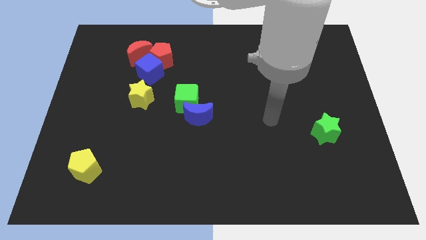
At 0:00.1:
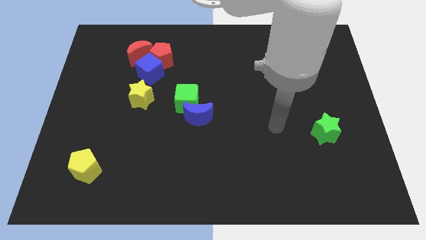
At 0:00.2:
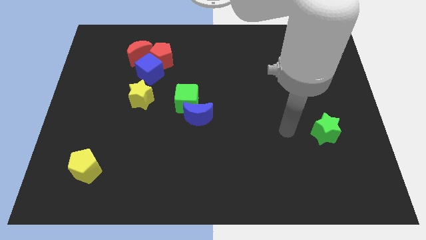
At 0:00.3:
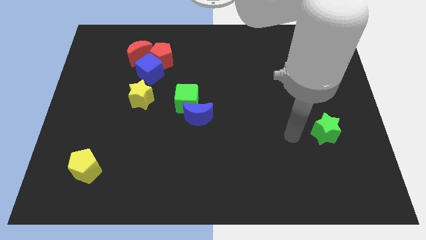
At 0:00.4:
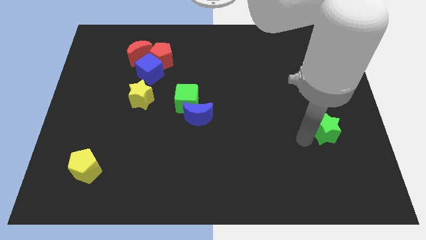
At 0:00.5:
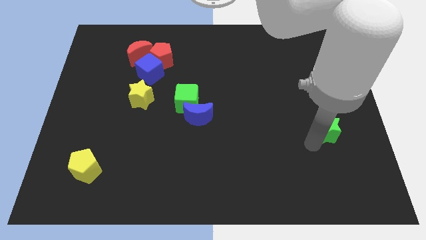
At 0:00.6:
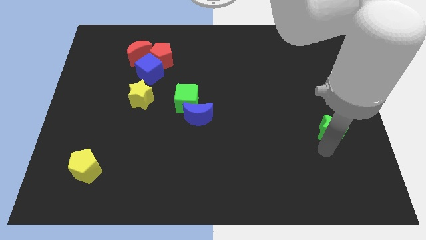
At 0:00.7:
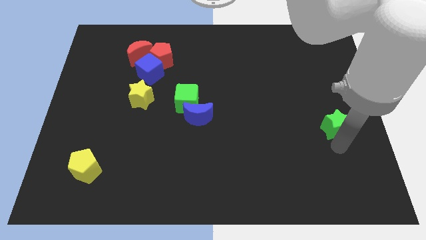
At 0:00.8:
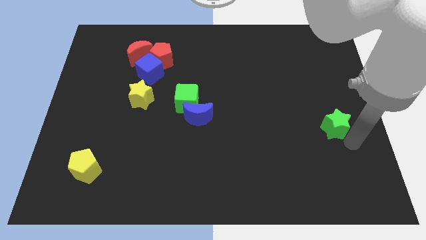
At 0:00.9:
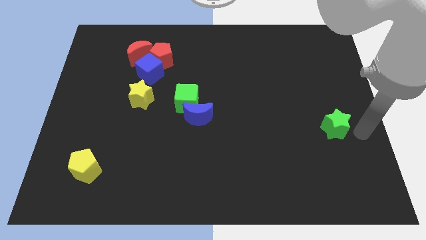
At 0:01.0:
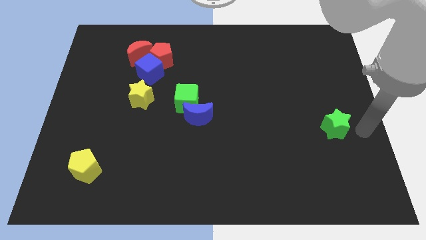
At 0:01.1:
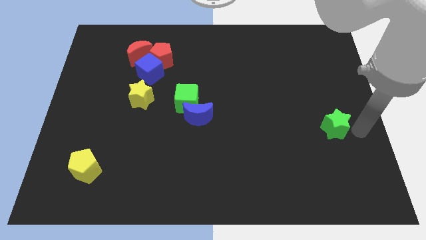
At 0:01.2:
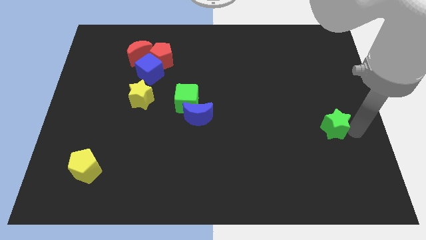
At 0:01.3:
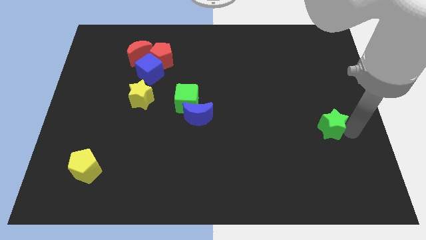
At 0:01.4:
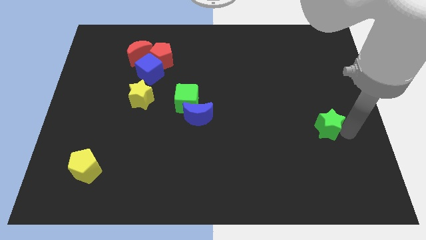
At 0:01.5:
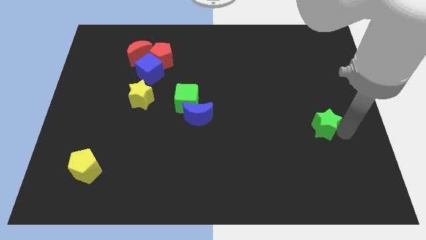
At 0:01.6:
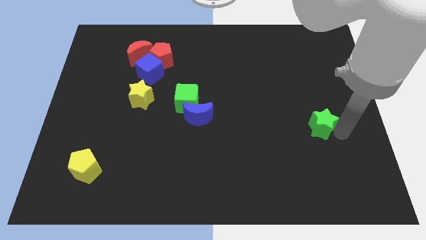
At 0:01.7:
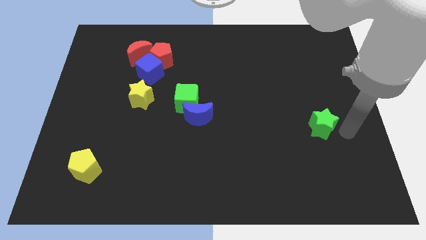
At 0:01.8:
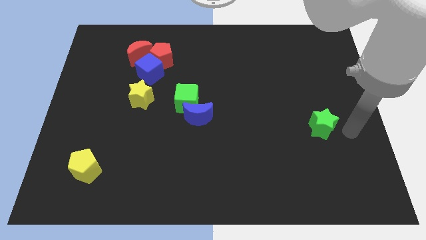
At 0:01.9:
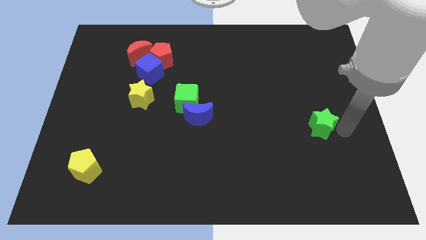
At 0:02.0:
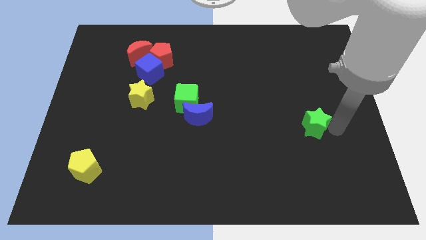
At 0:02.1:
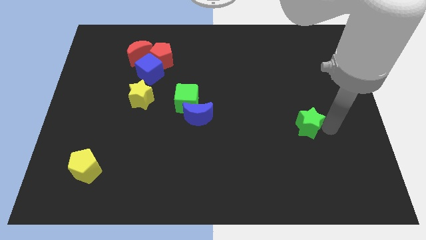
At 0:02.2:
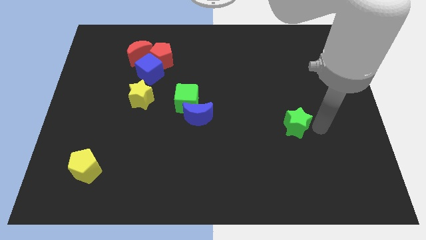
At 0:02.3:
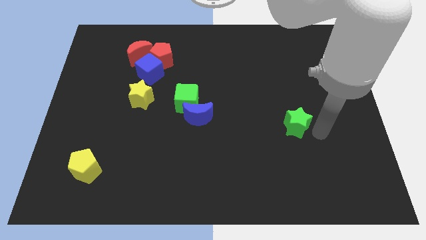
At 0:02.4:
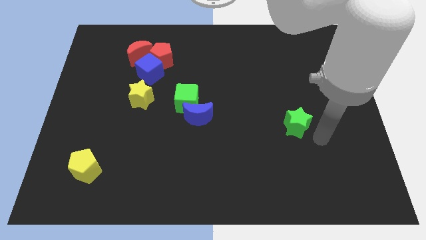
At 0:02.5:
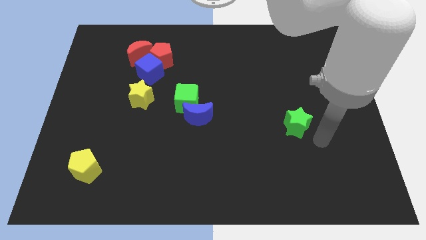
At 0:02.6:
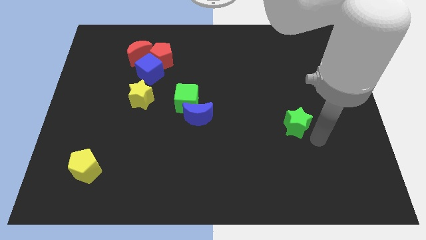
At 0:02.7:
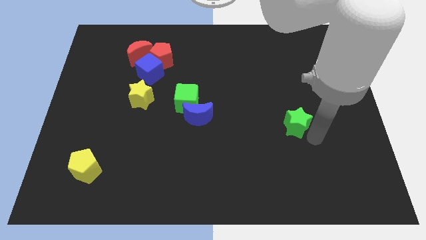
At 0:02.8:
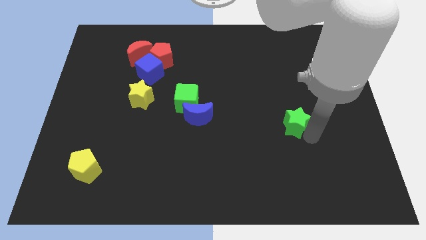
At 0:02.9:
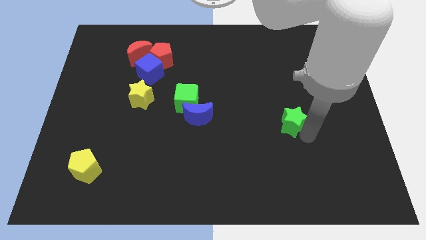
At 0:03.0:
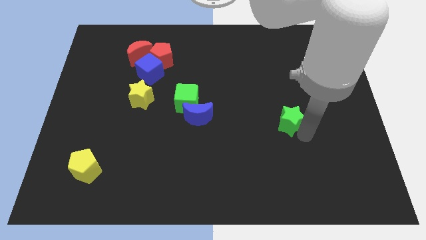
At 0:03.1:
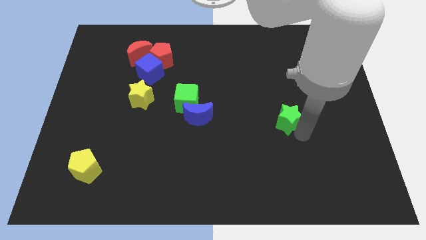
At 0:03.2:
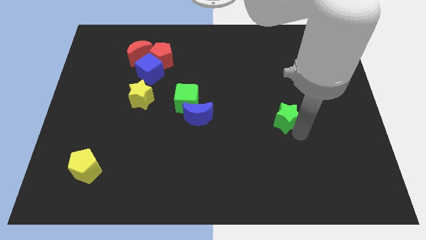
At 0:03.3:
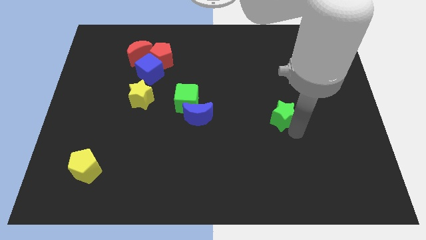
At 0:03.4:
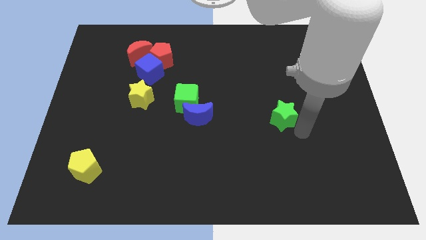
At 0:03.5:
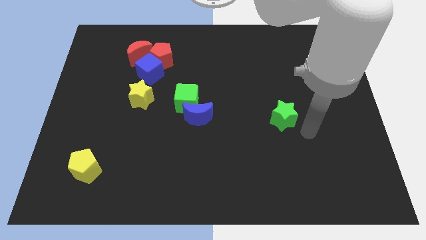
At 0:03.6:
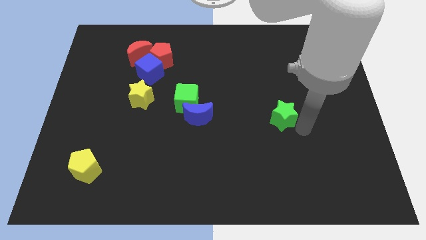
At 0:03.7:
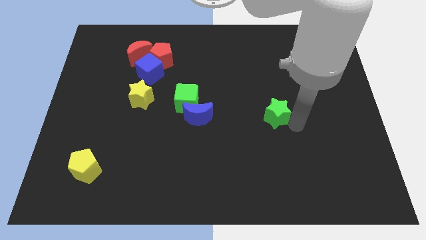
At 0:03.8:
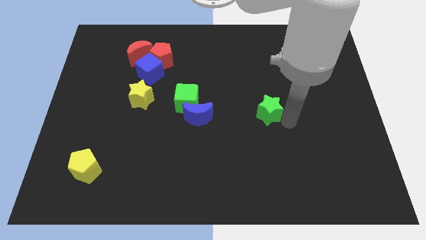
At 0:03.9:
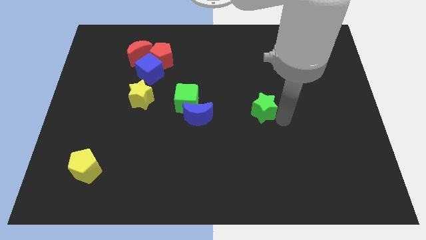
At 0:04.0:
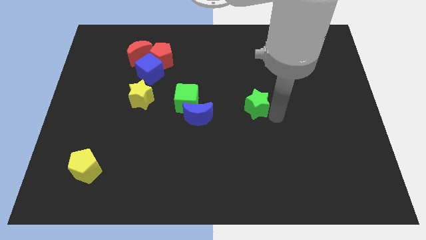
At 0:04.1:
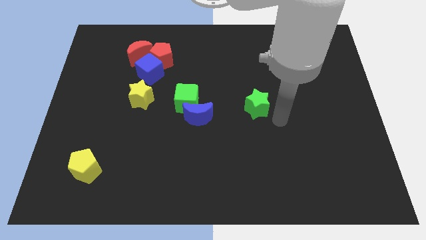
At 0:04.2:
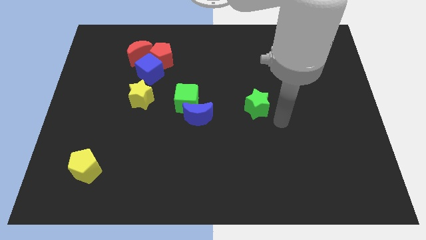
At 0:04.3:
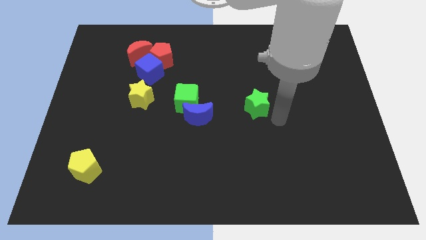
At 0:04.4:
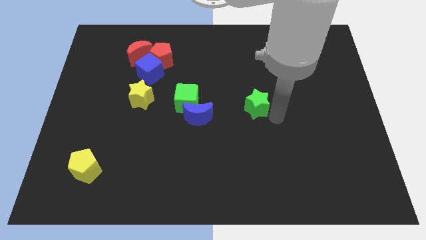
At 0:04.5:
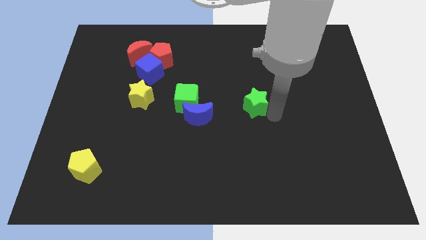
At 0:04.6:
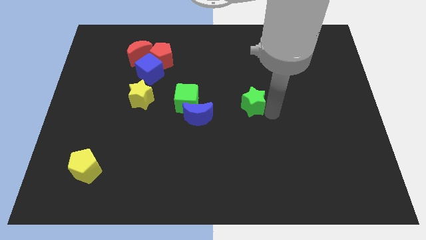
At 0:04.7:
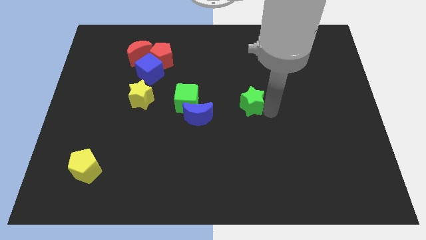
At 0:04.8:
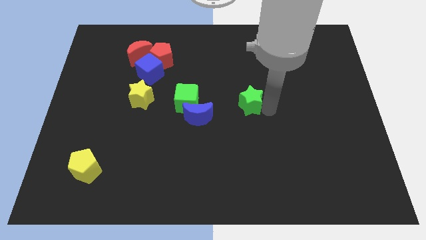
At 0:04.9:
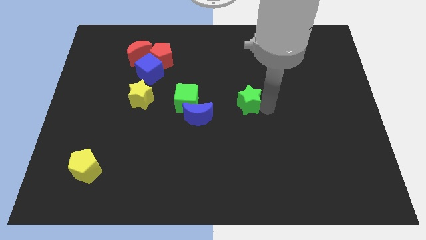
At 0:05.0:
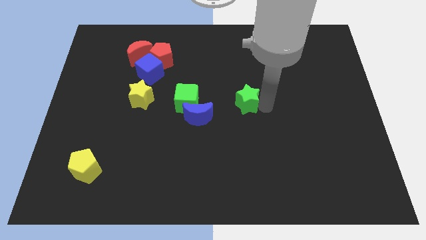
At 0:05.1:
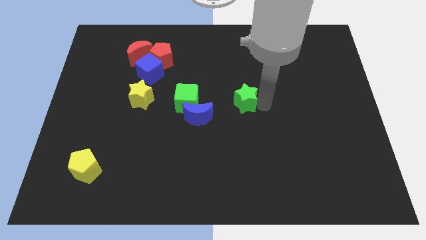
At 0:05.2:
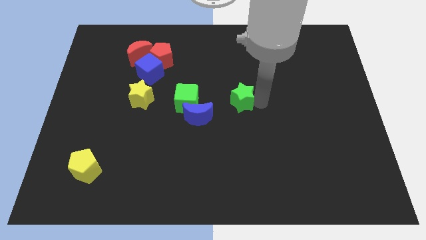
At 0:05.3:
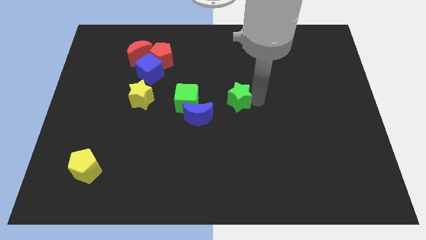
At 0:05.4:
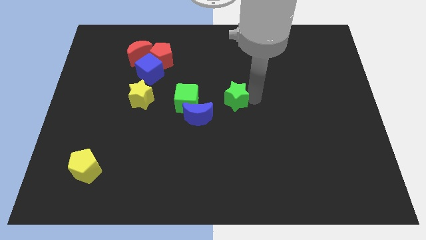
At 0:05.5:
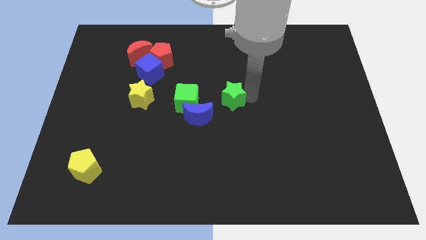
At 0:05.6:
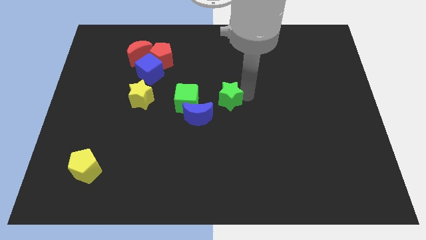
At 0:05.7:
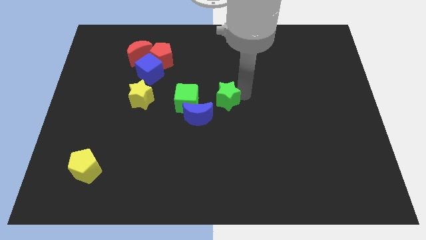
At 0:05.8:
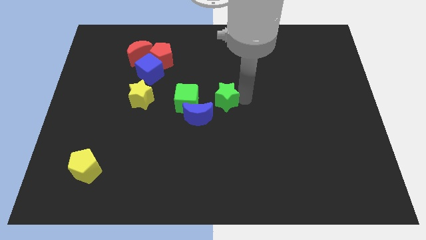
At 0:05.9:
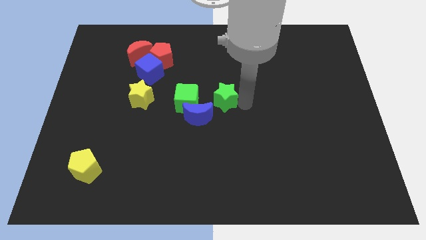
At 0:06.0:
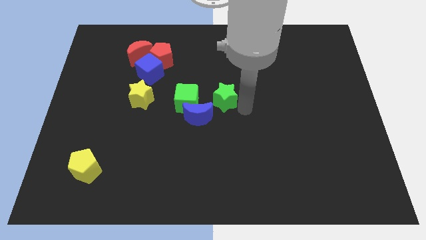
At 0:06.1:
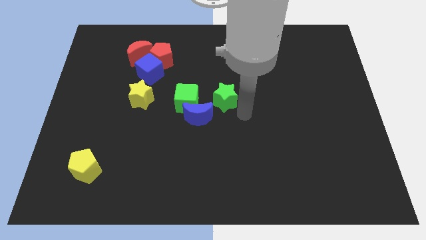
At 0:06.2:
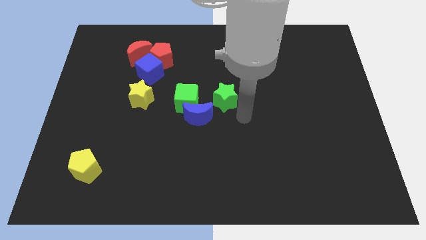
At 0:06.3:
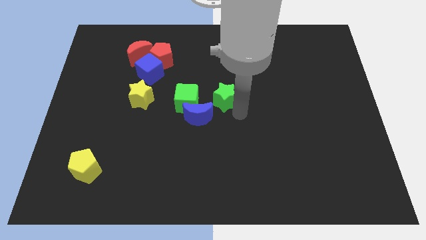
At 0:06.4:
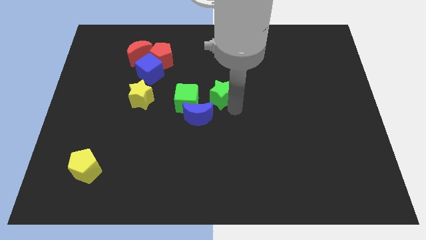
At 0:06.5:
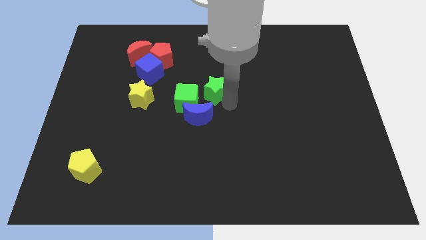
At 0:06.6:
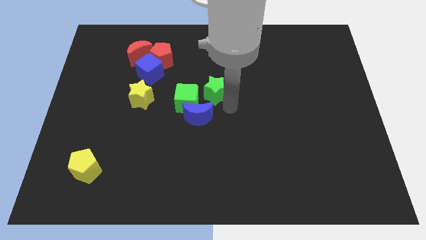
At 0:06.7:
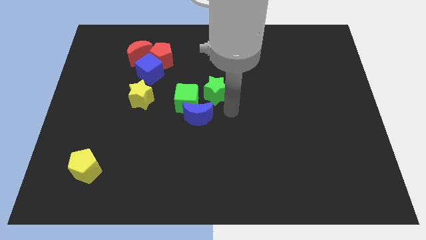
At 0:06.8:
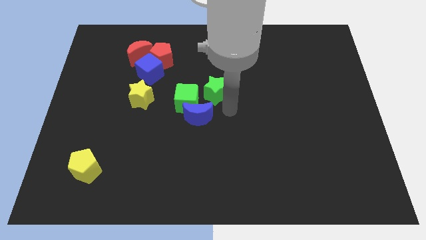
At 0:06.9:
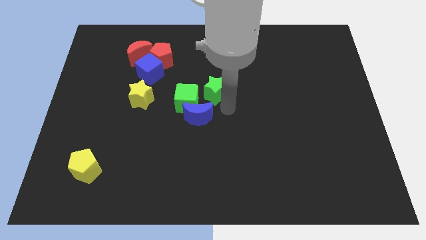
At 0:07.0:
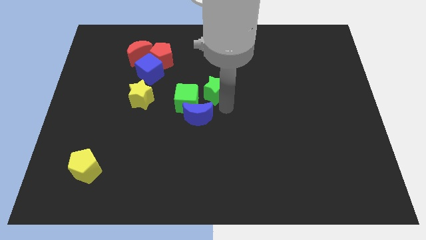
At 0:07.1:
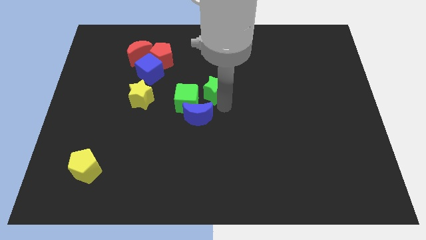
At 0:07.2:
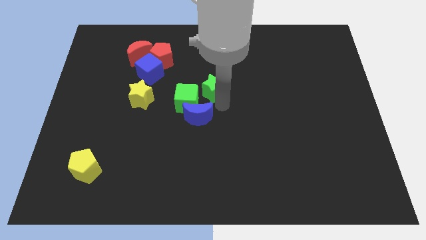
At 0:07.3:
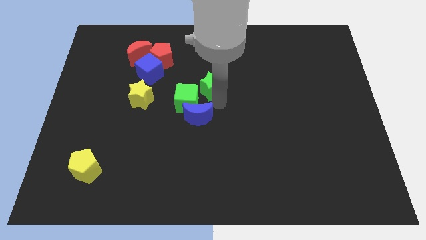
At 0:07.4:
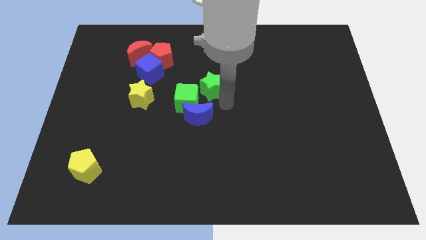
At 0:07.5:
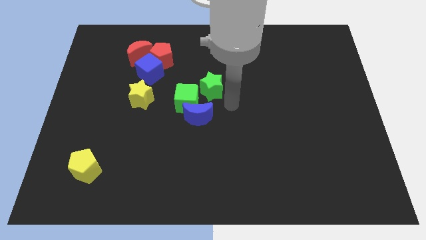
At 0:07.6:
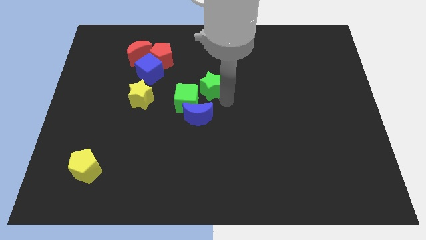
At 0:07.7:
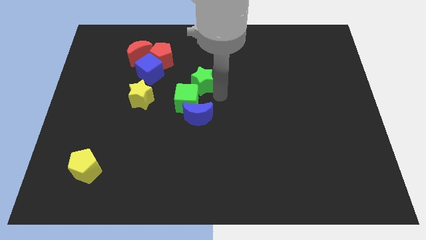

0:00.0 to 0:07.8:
move the green star to the top side of the green cube
